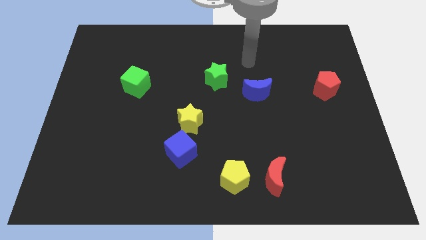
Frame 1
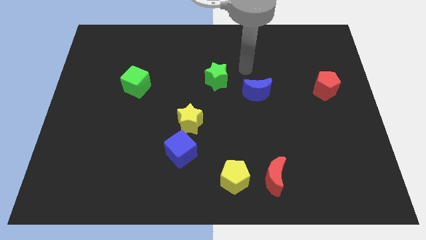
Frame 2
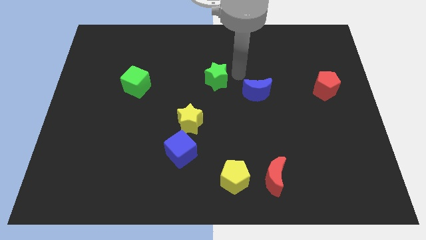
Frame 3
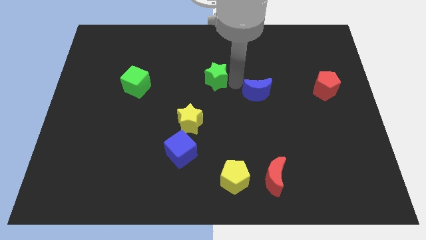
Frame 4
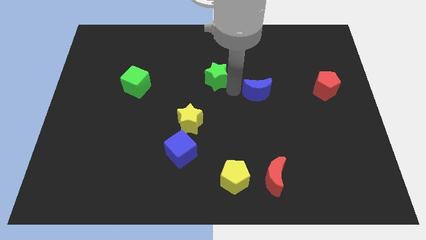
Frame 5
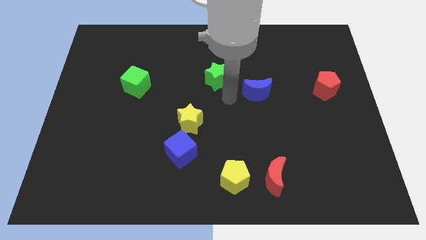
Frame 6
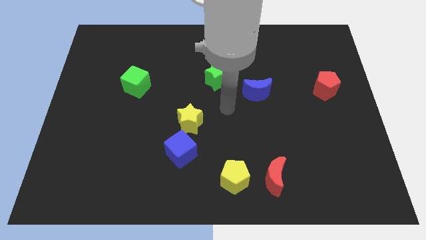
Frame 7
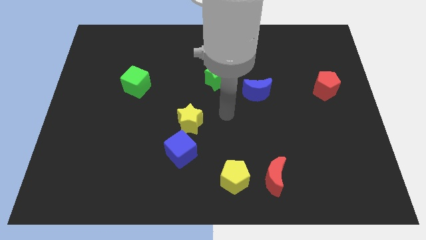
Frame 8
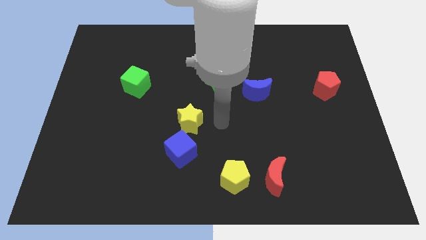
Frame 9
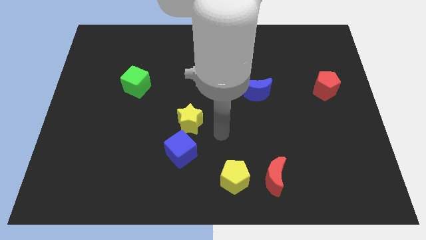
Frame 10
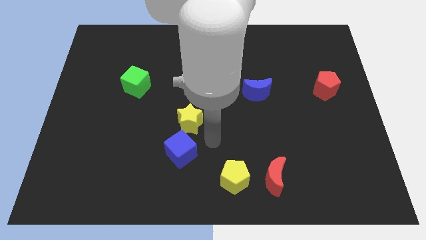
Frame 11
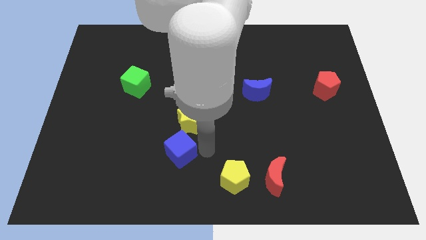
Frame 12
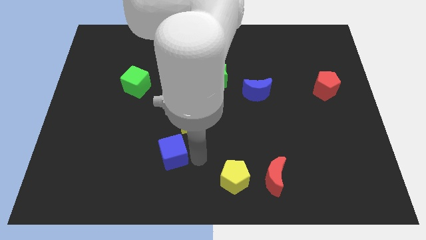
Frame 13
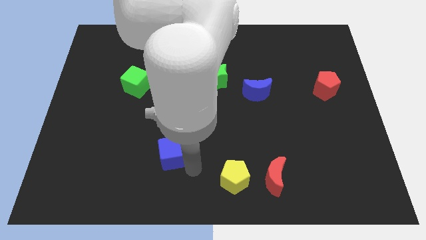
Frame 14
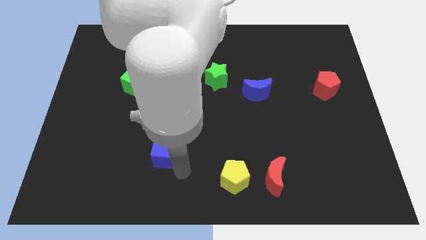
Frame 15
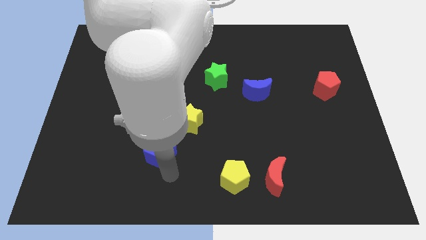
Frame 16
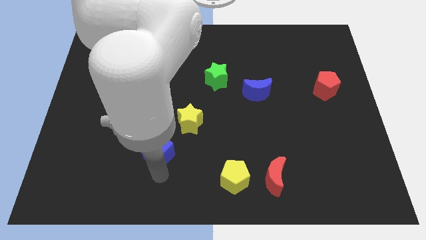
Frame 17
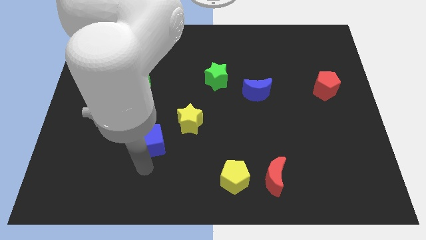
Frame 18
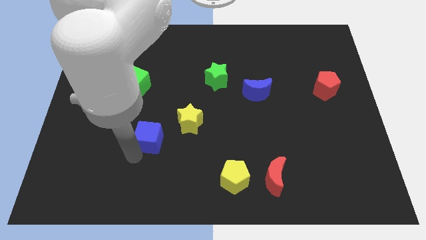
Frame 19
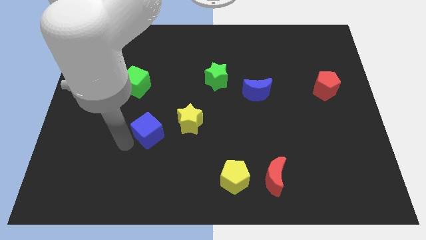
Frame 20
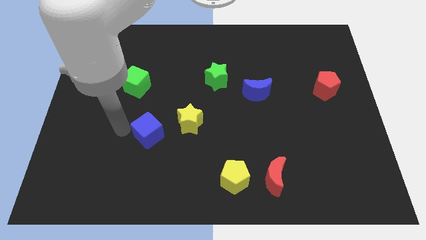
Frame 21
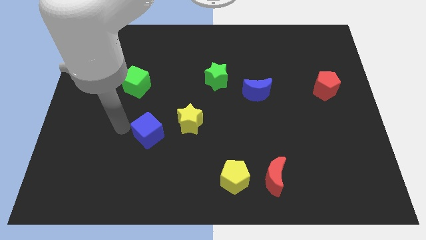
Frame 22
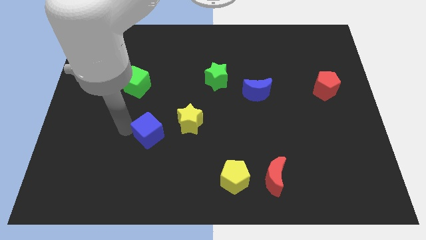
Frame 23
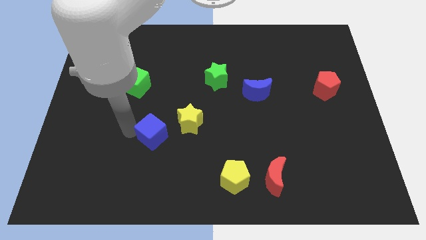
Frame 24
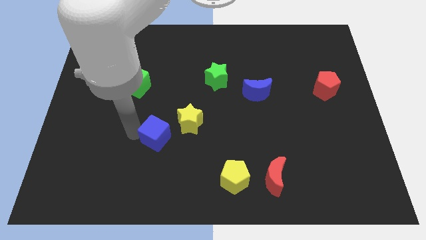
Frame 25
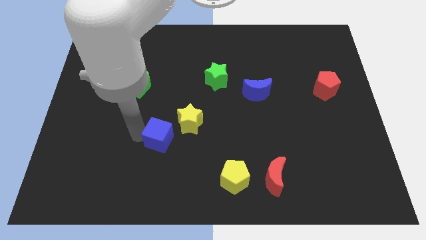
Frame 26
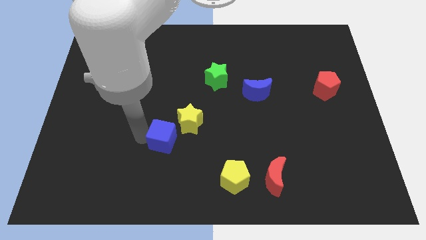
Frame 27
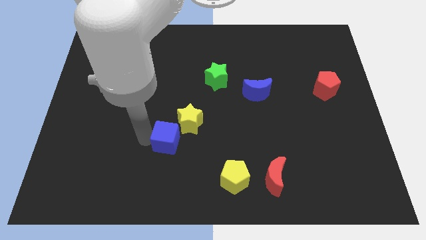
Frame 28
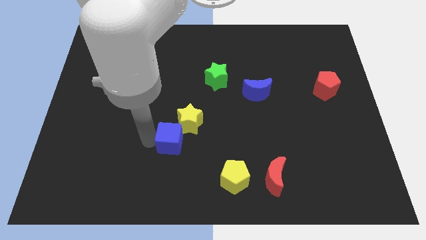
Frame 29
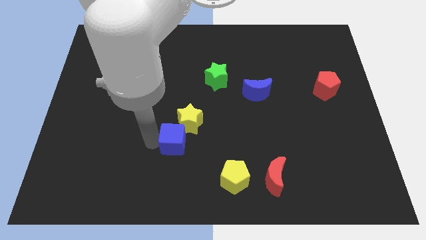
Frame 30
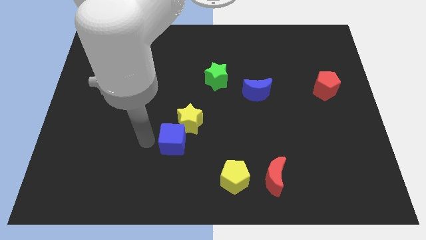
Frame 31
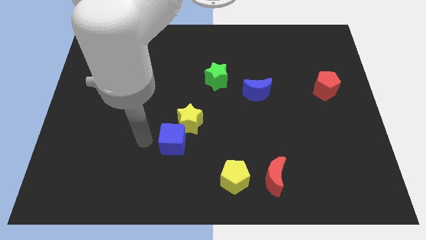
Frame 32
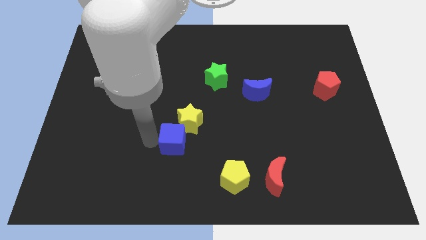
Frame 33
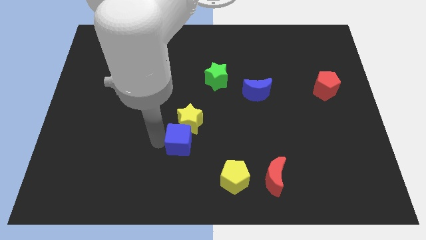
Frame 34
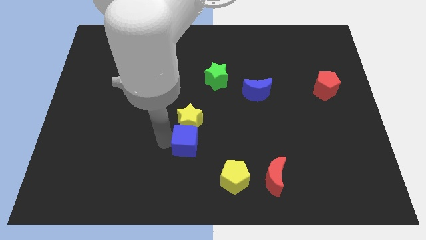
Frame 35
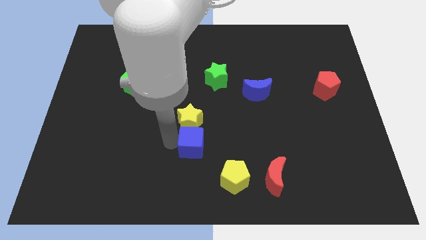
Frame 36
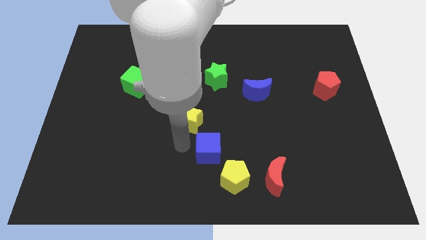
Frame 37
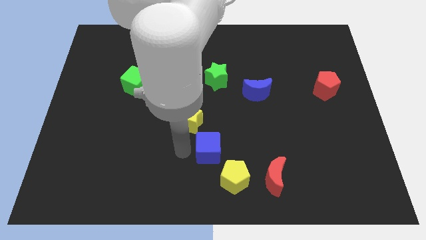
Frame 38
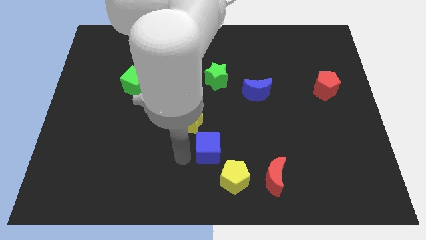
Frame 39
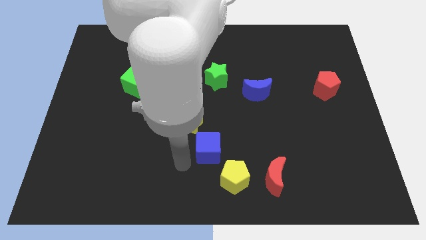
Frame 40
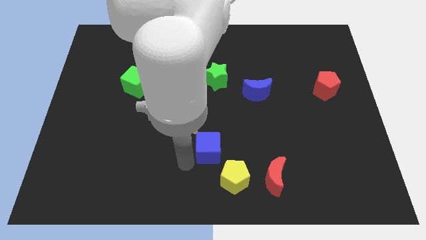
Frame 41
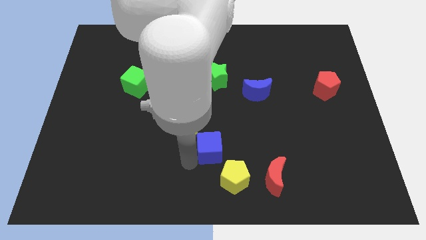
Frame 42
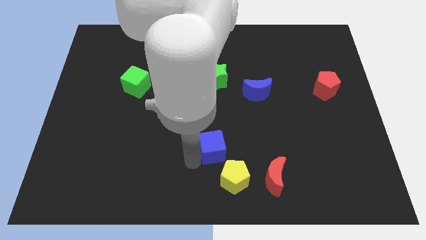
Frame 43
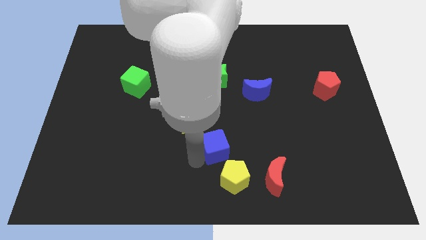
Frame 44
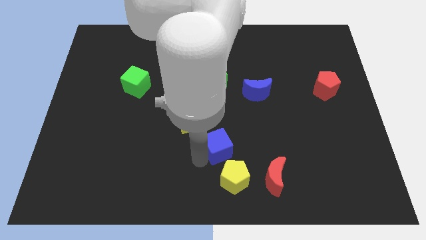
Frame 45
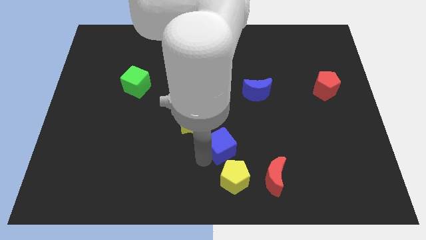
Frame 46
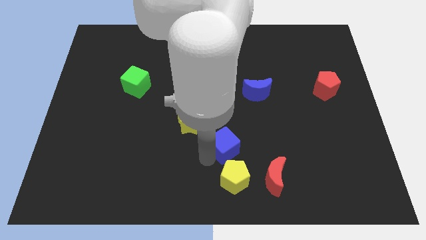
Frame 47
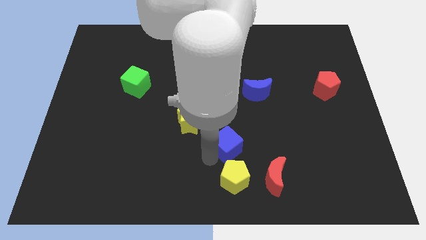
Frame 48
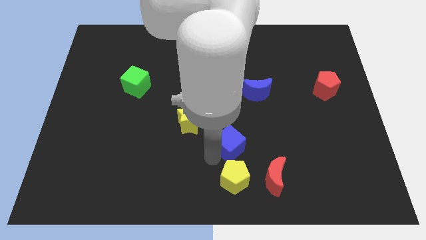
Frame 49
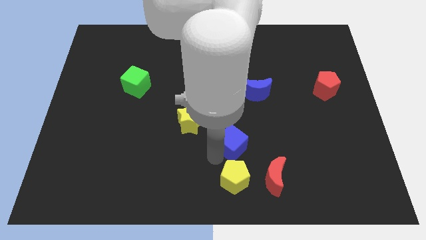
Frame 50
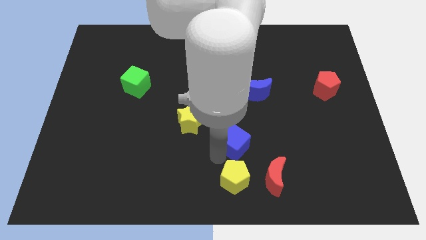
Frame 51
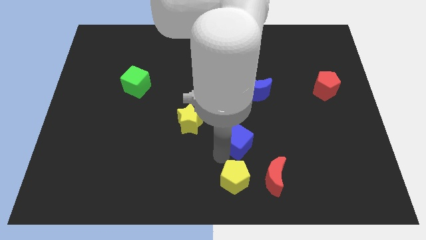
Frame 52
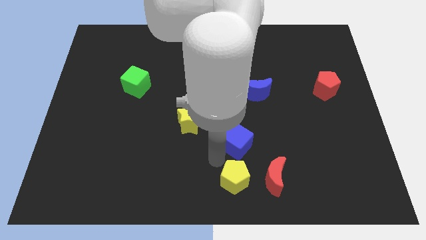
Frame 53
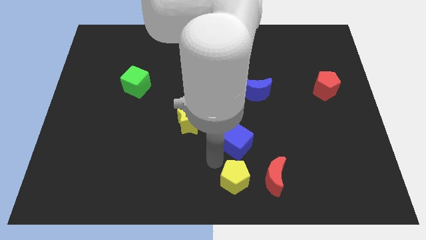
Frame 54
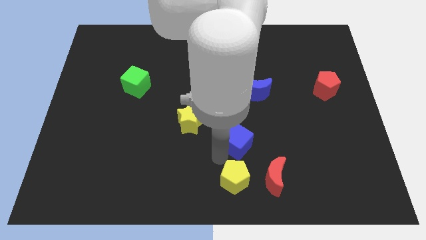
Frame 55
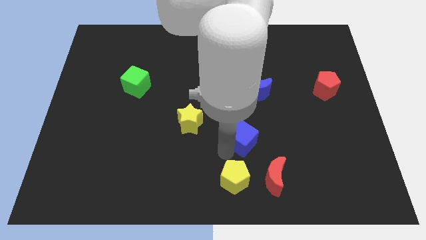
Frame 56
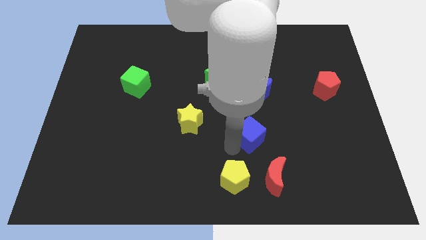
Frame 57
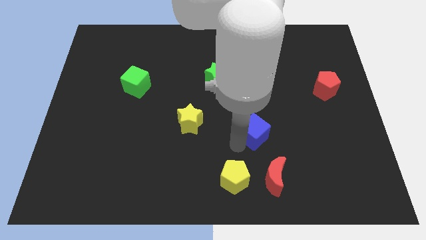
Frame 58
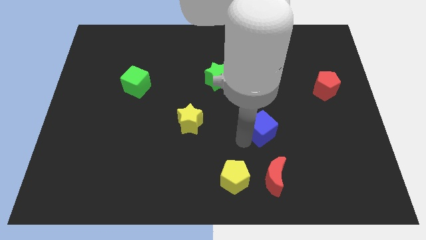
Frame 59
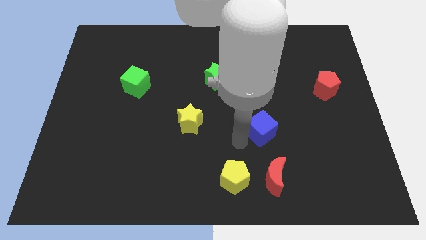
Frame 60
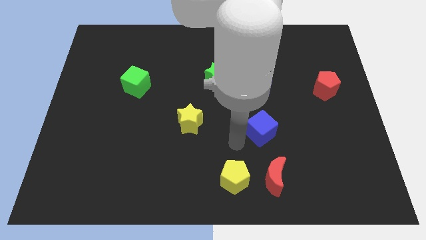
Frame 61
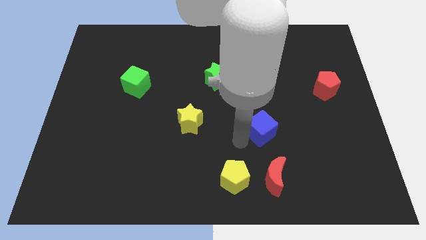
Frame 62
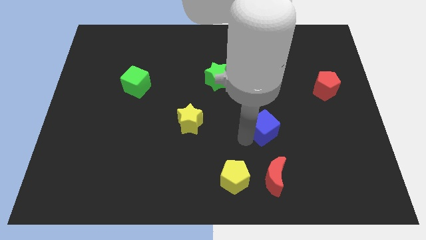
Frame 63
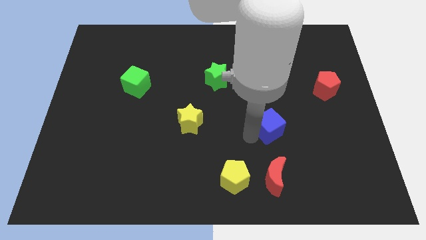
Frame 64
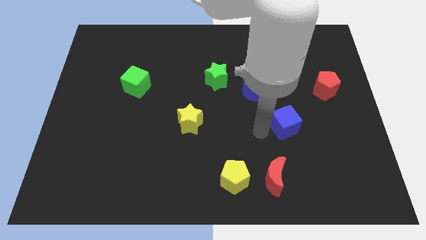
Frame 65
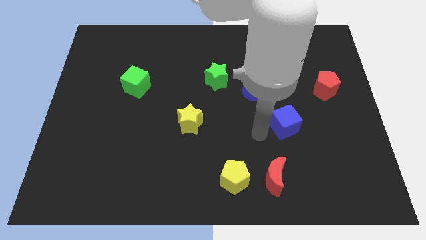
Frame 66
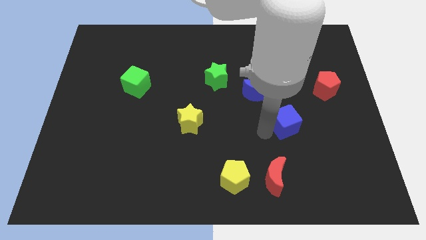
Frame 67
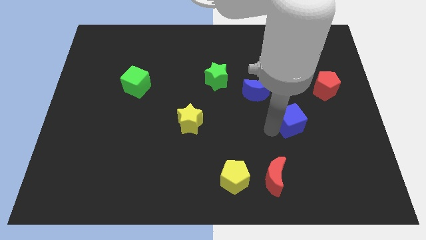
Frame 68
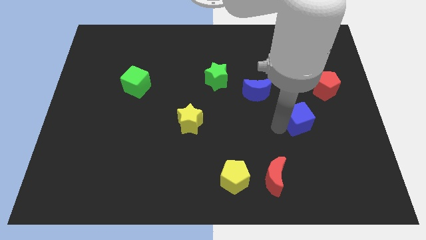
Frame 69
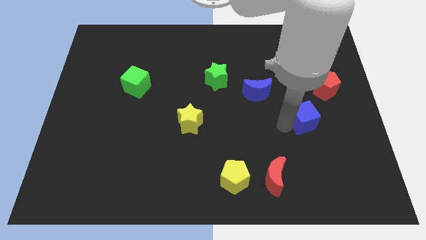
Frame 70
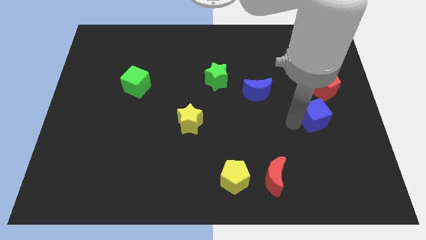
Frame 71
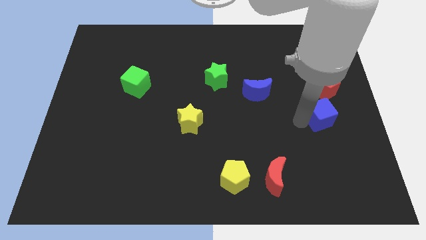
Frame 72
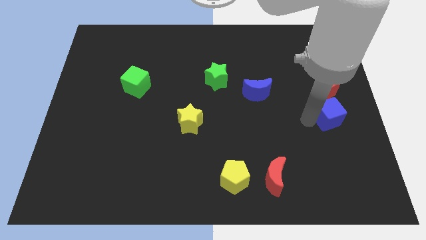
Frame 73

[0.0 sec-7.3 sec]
push the blue cube to the right side
